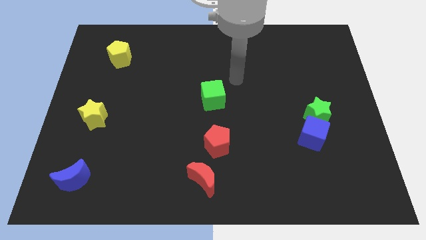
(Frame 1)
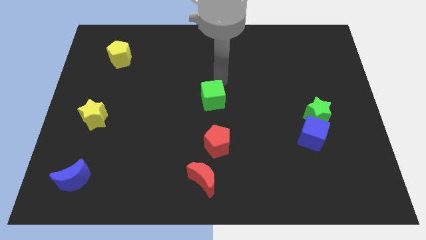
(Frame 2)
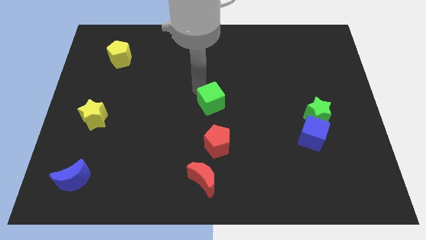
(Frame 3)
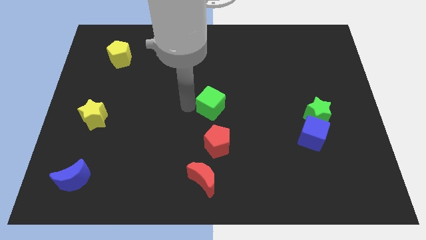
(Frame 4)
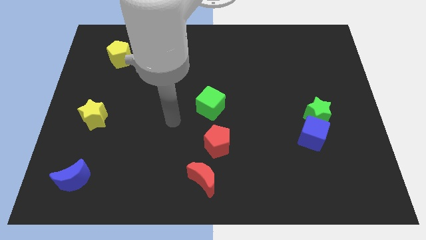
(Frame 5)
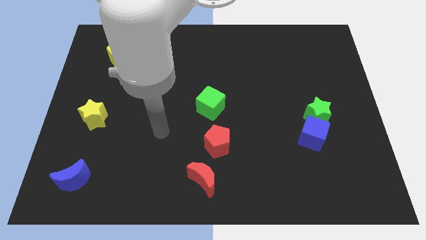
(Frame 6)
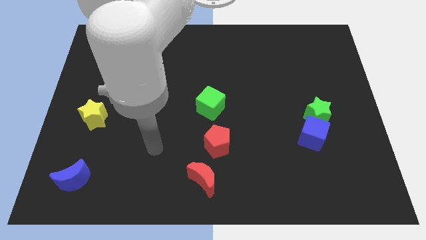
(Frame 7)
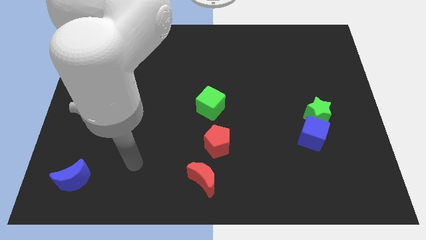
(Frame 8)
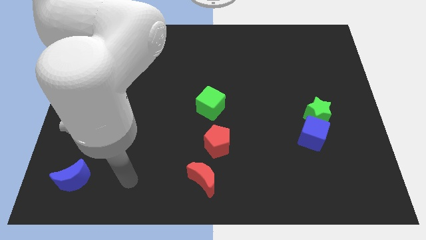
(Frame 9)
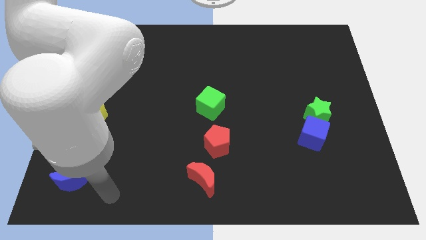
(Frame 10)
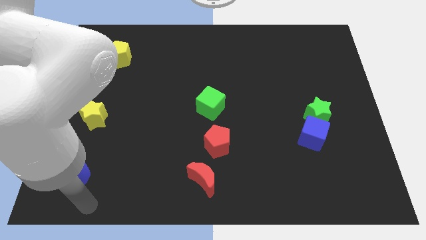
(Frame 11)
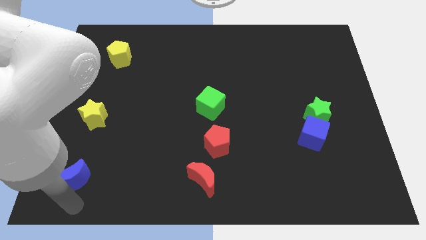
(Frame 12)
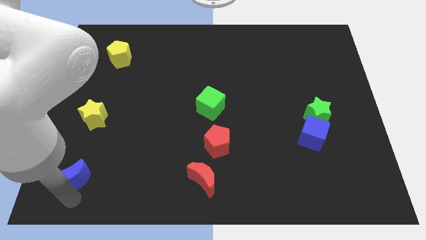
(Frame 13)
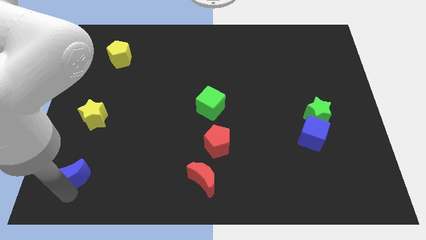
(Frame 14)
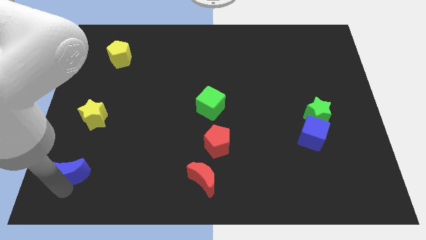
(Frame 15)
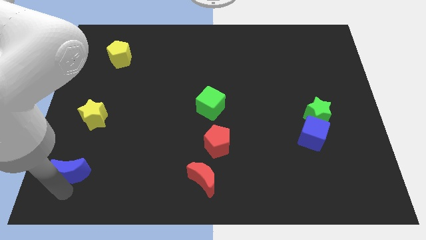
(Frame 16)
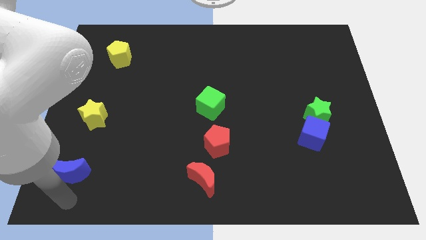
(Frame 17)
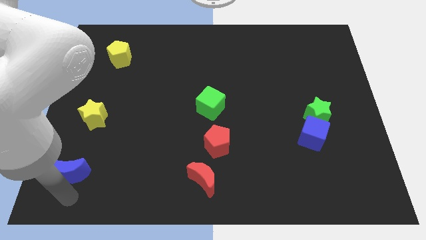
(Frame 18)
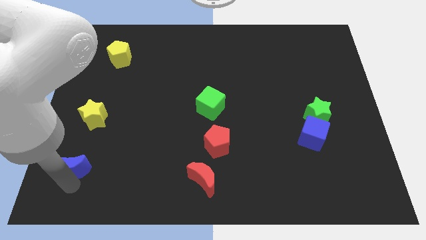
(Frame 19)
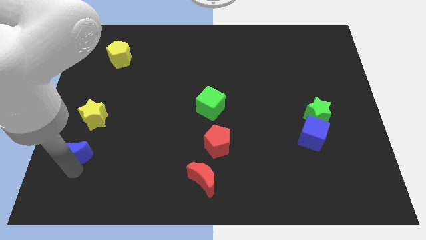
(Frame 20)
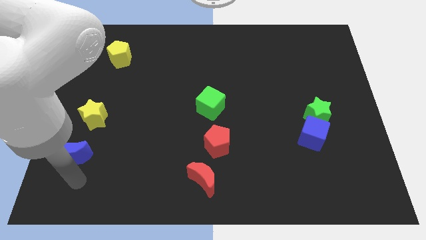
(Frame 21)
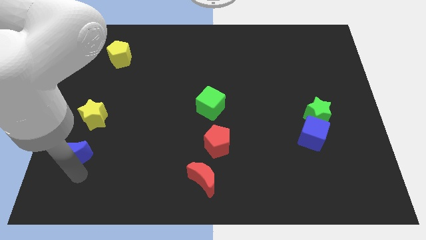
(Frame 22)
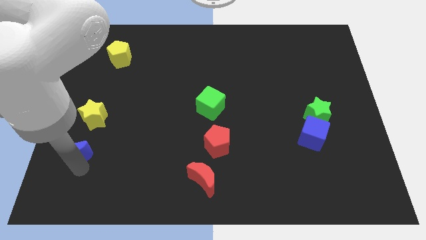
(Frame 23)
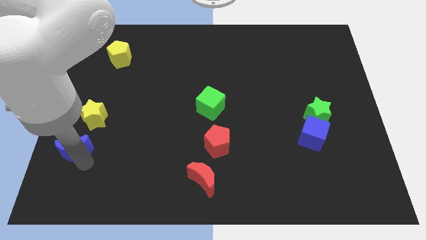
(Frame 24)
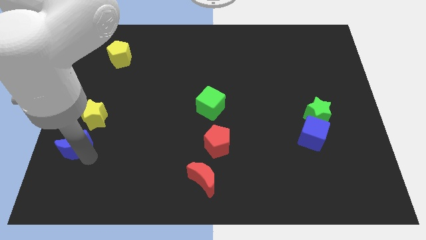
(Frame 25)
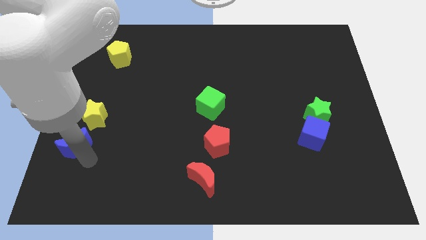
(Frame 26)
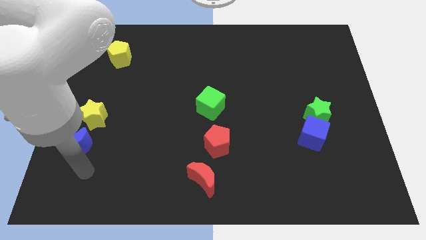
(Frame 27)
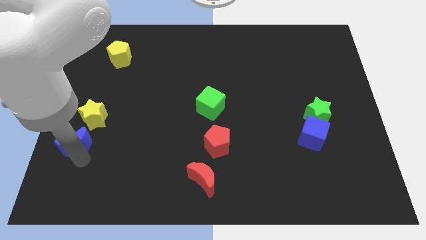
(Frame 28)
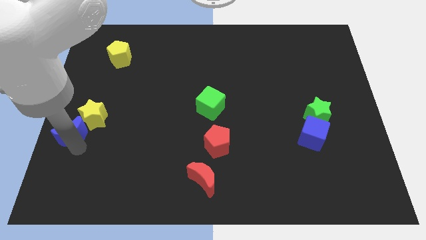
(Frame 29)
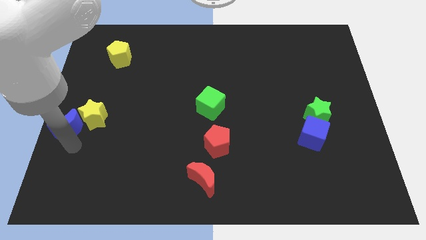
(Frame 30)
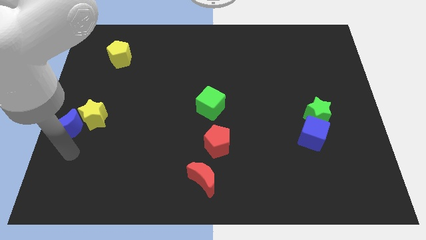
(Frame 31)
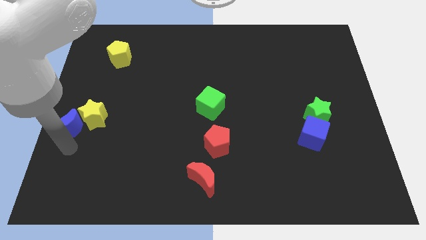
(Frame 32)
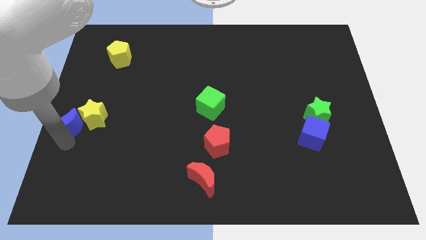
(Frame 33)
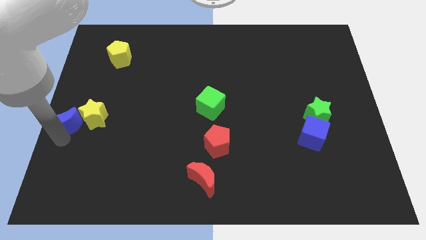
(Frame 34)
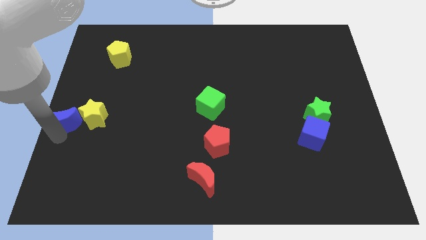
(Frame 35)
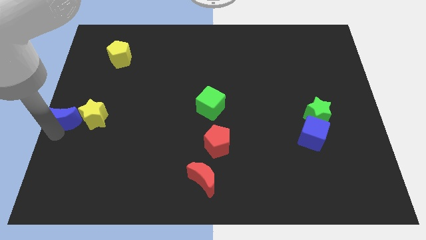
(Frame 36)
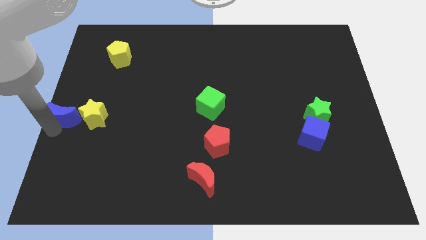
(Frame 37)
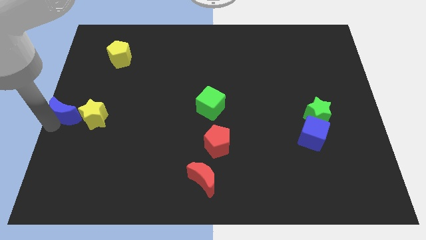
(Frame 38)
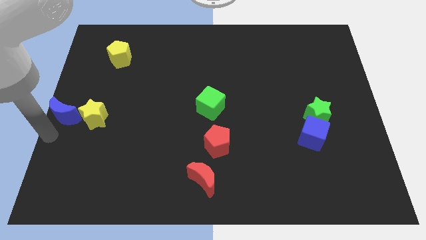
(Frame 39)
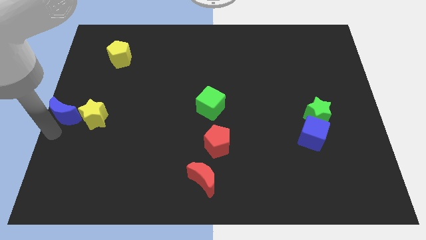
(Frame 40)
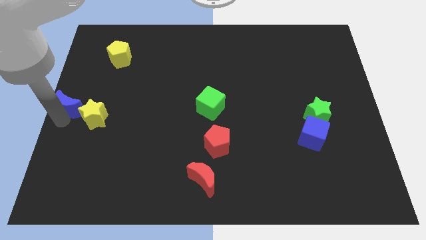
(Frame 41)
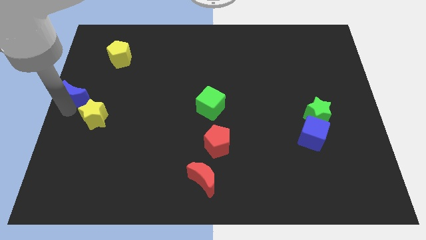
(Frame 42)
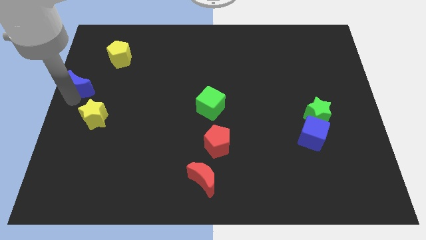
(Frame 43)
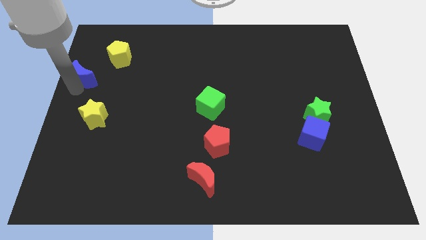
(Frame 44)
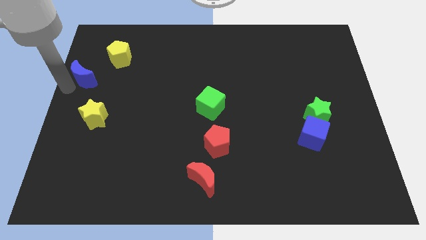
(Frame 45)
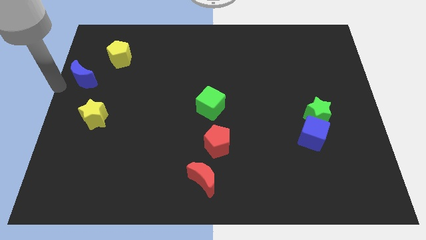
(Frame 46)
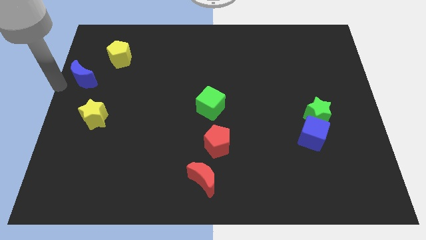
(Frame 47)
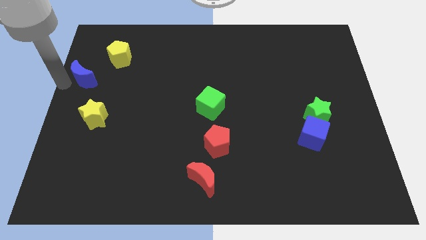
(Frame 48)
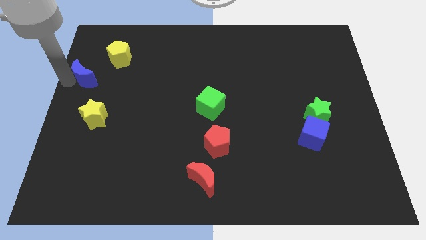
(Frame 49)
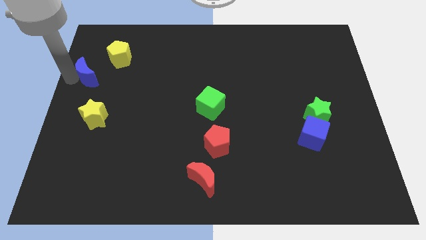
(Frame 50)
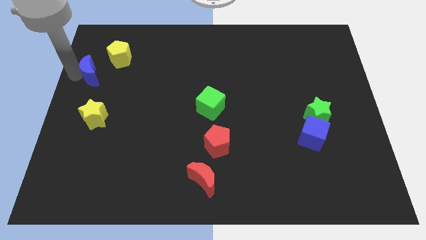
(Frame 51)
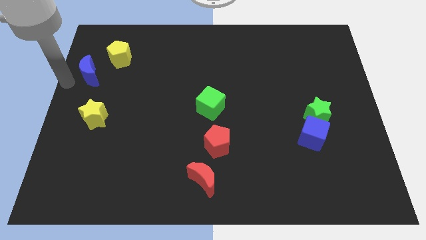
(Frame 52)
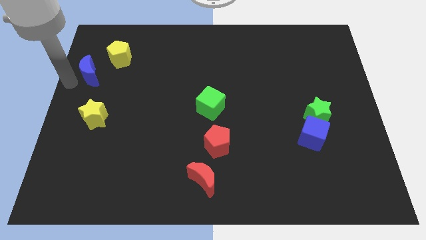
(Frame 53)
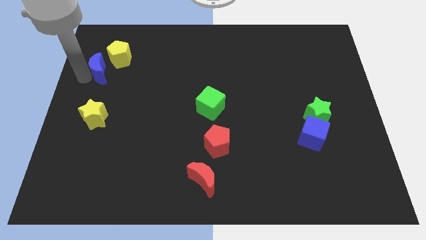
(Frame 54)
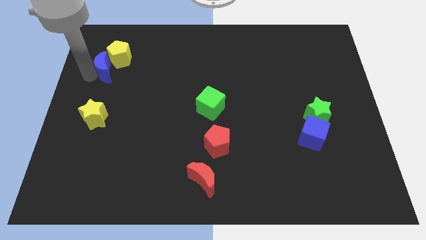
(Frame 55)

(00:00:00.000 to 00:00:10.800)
push the blue moon towards the yellow pentagon

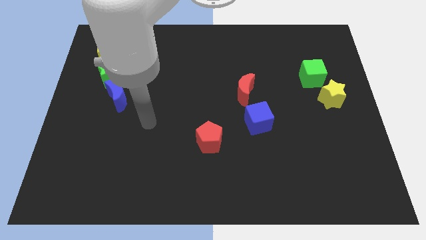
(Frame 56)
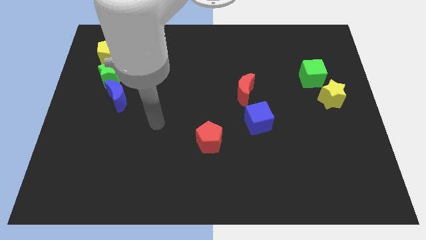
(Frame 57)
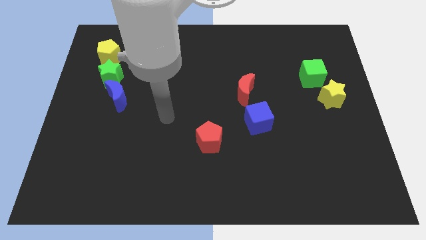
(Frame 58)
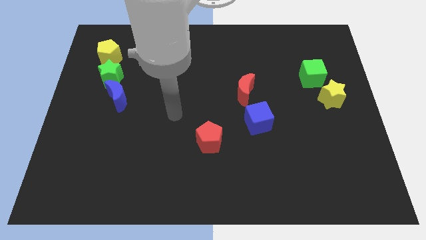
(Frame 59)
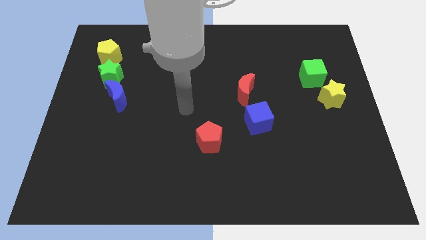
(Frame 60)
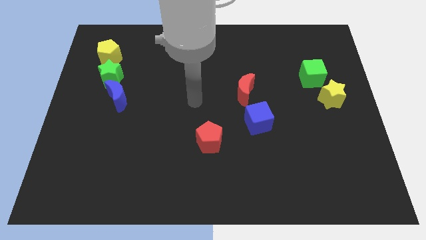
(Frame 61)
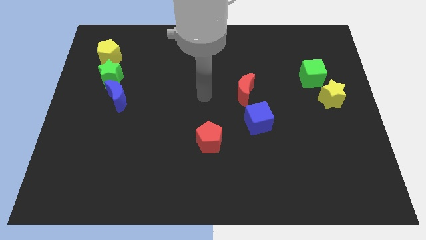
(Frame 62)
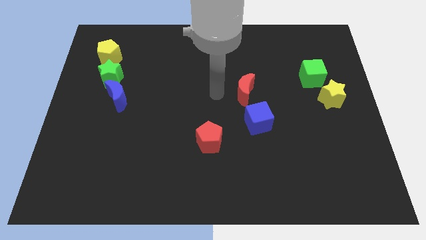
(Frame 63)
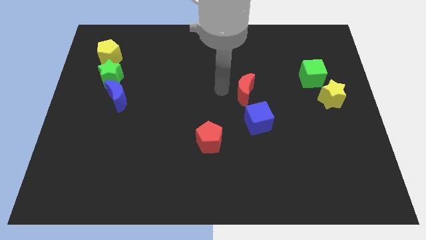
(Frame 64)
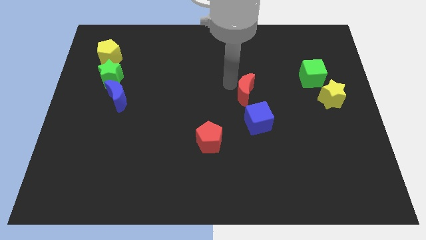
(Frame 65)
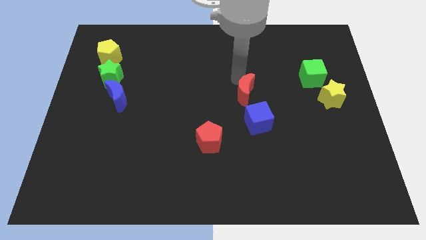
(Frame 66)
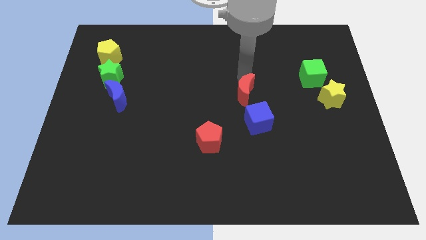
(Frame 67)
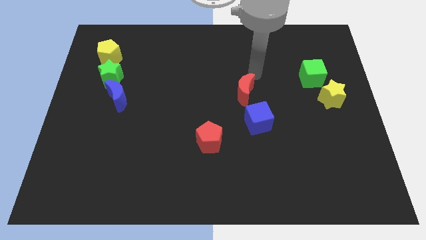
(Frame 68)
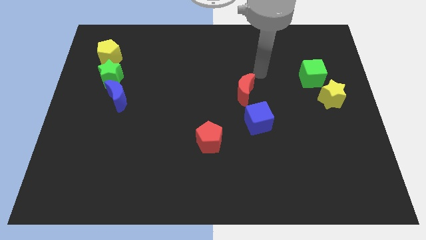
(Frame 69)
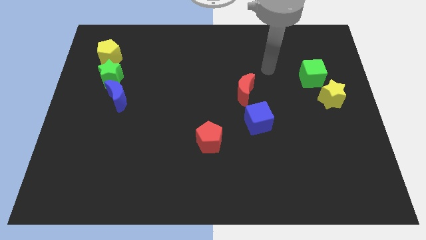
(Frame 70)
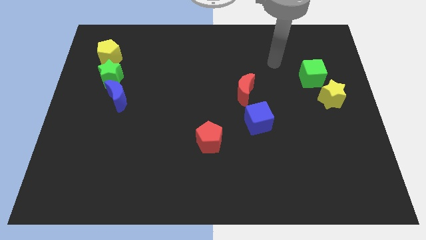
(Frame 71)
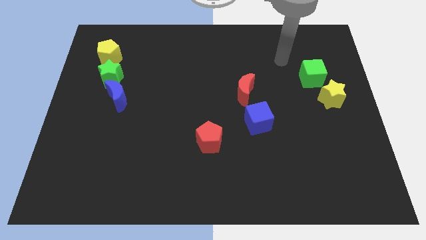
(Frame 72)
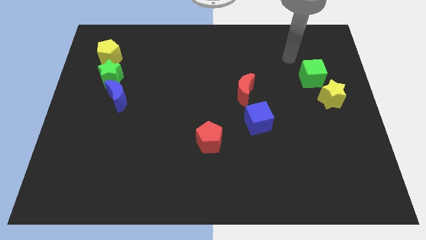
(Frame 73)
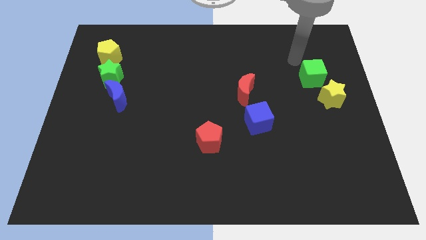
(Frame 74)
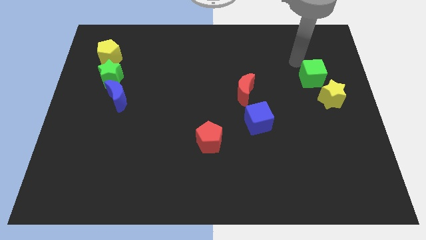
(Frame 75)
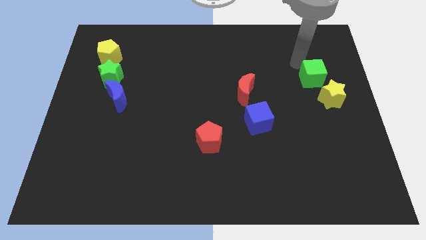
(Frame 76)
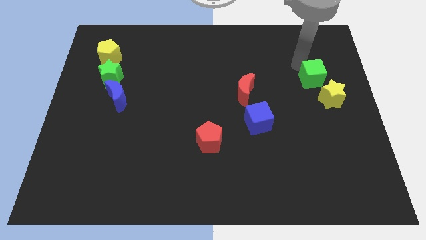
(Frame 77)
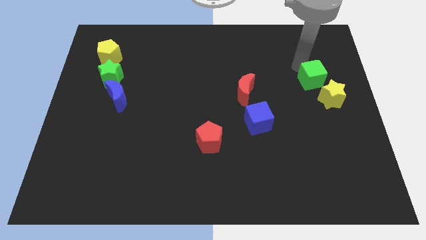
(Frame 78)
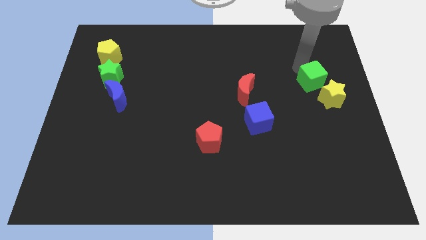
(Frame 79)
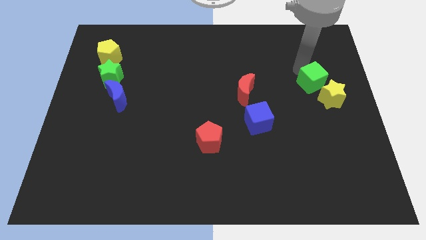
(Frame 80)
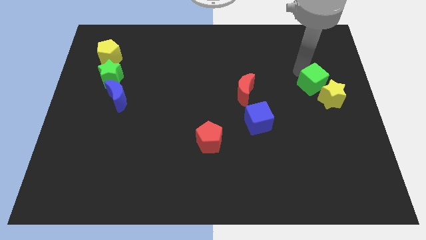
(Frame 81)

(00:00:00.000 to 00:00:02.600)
move the green cube towards the yellow star
